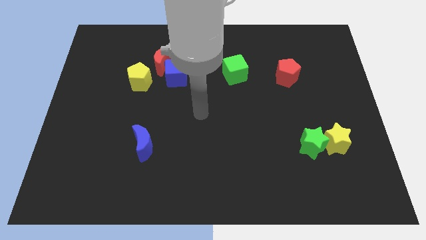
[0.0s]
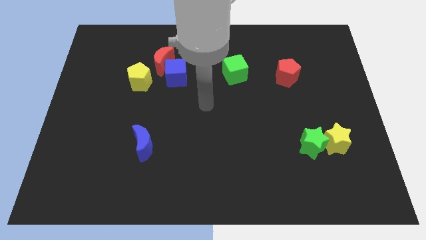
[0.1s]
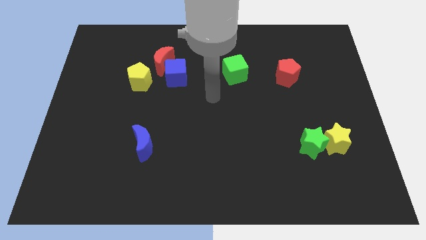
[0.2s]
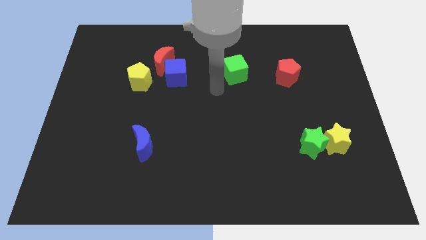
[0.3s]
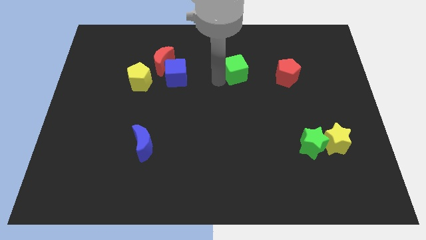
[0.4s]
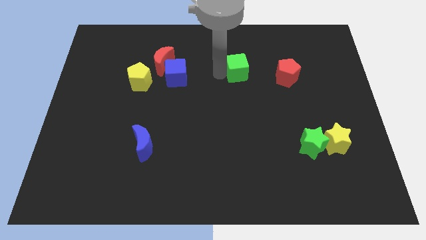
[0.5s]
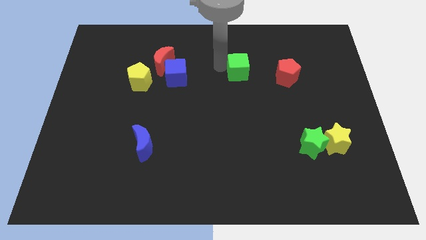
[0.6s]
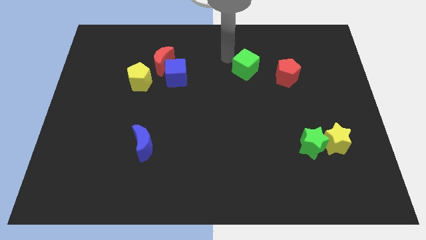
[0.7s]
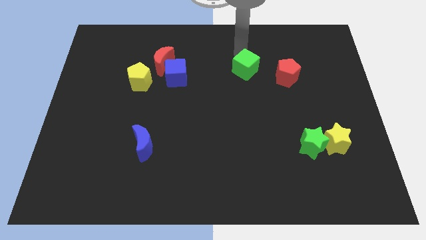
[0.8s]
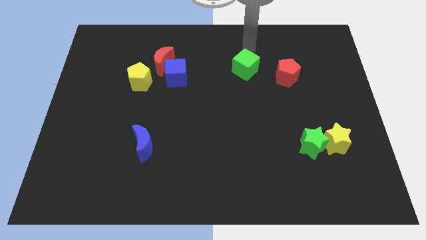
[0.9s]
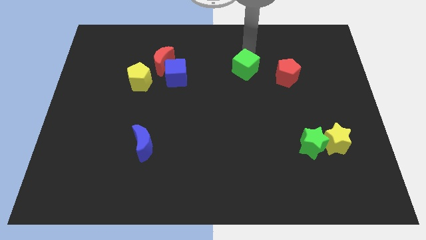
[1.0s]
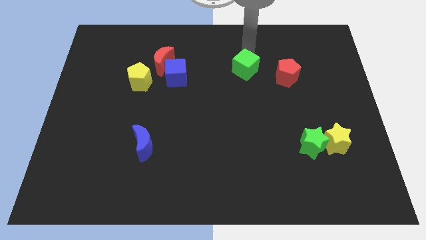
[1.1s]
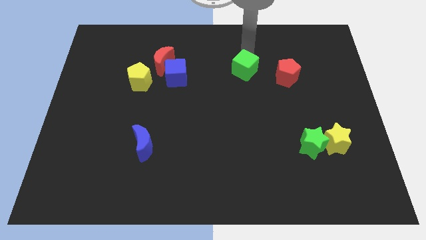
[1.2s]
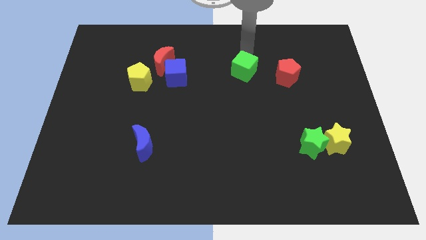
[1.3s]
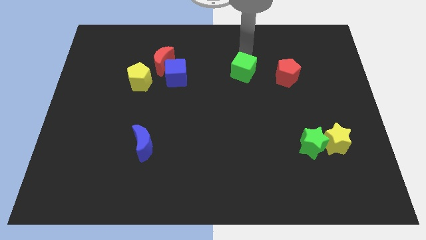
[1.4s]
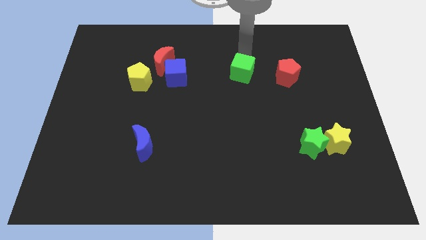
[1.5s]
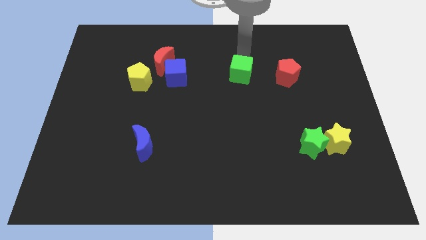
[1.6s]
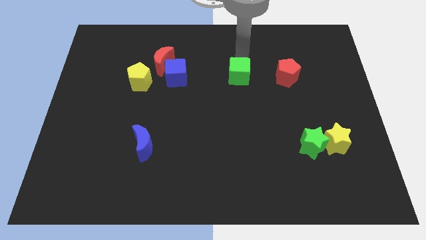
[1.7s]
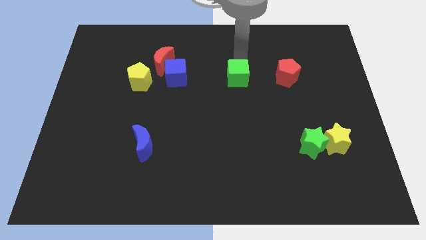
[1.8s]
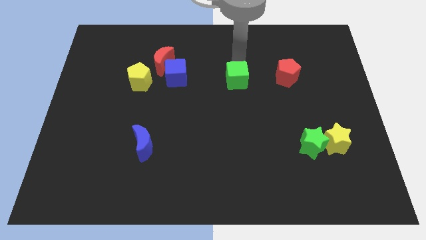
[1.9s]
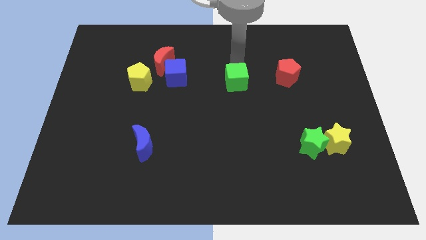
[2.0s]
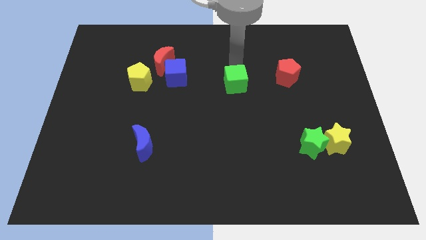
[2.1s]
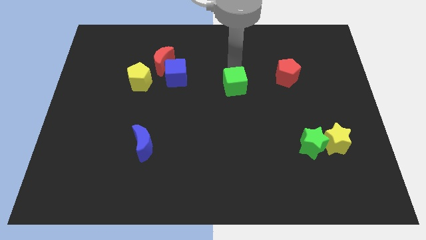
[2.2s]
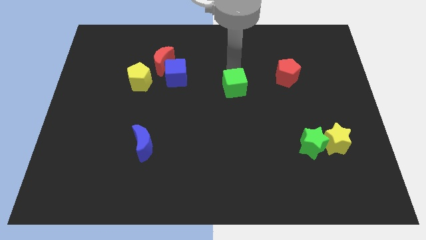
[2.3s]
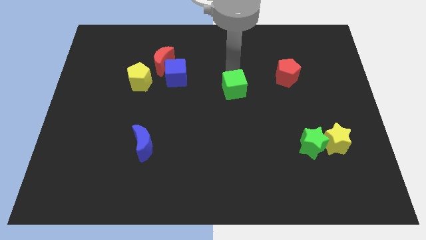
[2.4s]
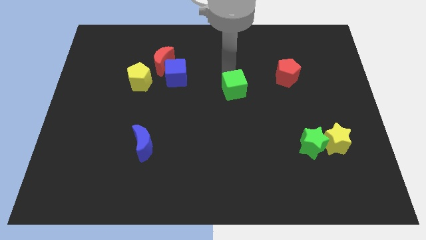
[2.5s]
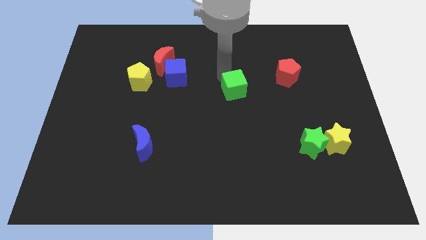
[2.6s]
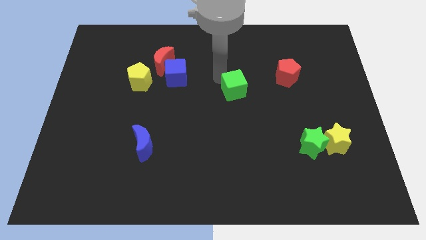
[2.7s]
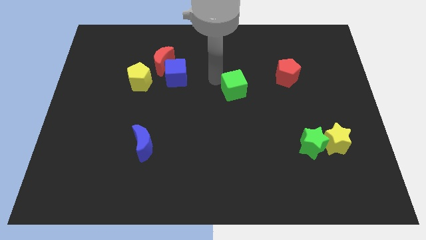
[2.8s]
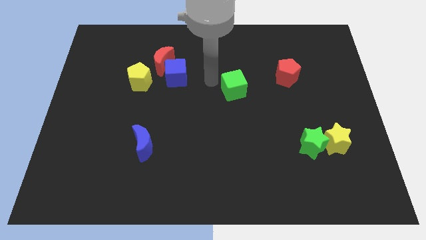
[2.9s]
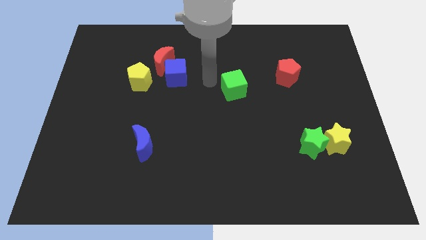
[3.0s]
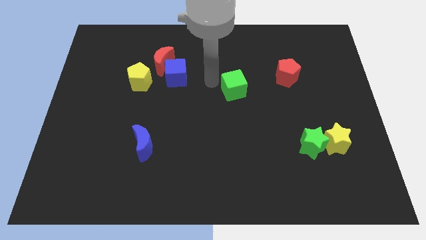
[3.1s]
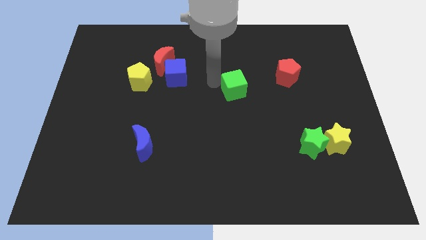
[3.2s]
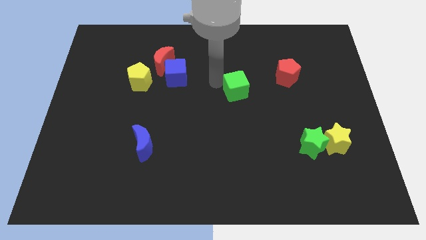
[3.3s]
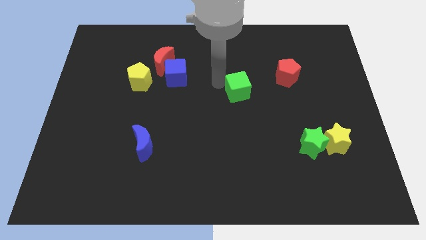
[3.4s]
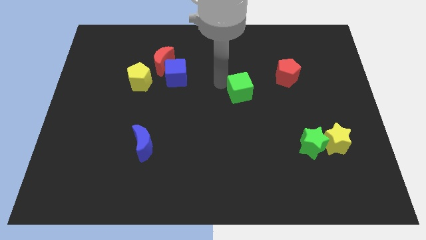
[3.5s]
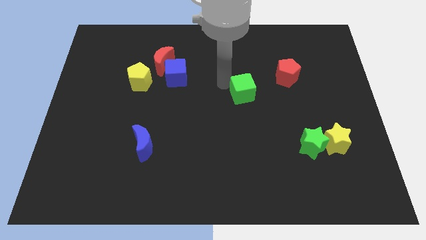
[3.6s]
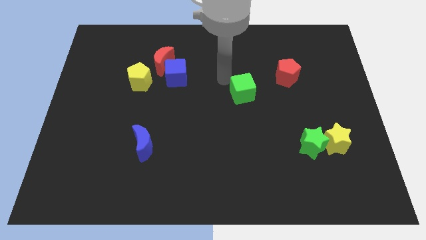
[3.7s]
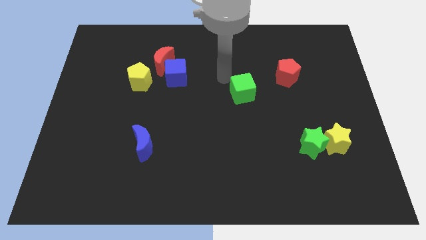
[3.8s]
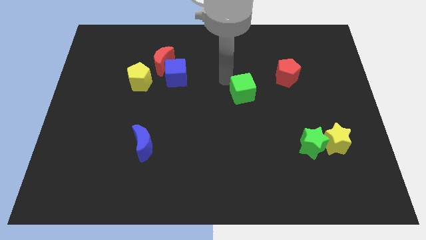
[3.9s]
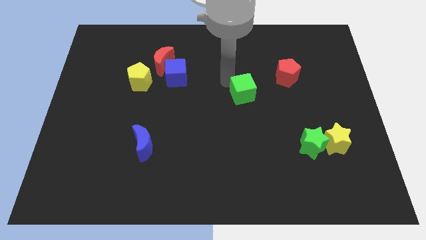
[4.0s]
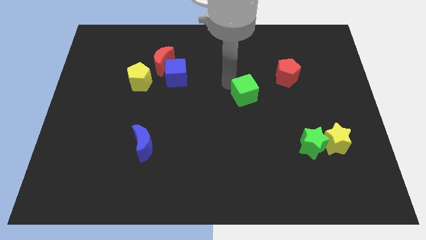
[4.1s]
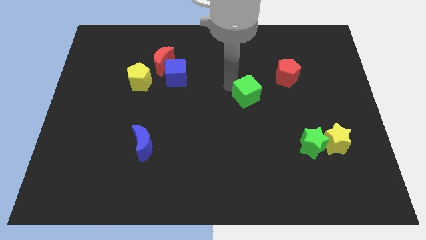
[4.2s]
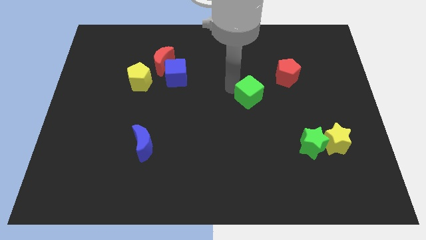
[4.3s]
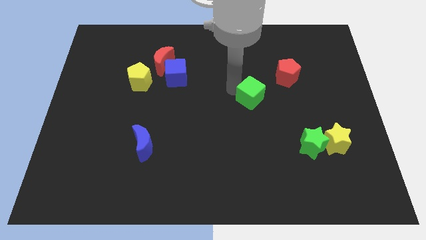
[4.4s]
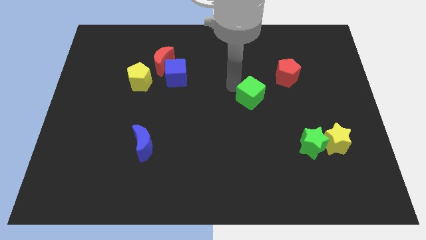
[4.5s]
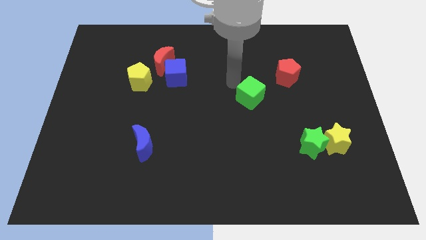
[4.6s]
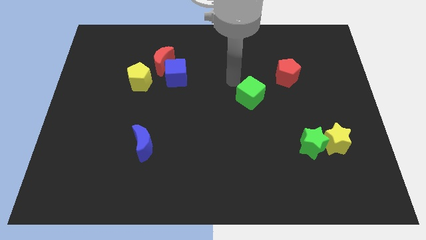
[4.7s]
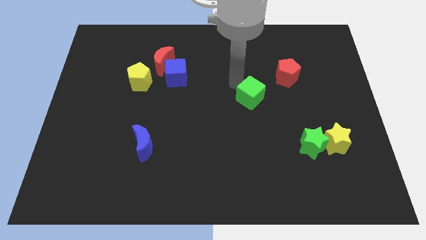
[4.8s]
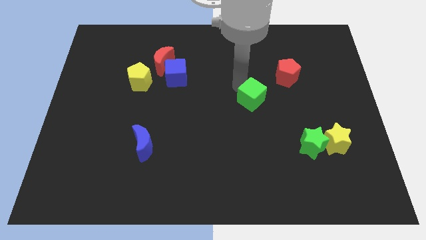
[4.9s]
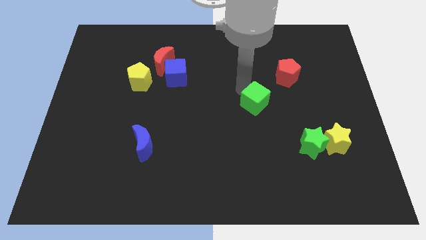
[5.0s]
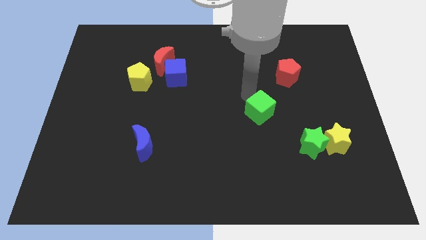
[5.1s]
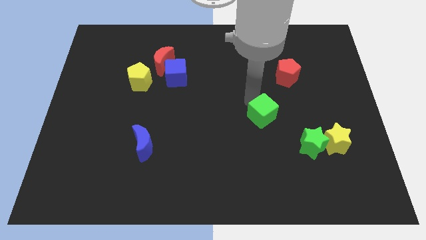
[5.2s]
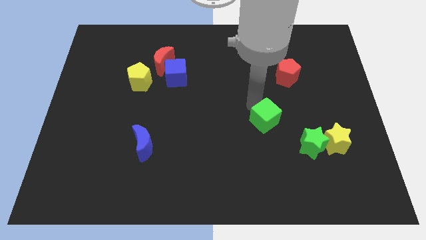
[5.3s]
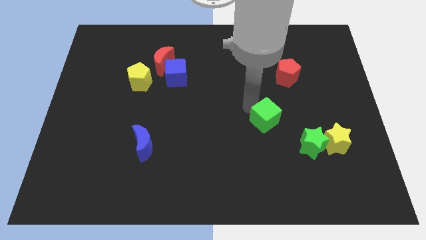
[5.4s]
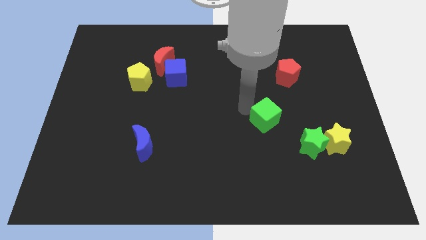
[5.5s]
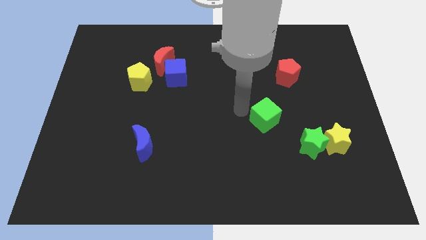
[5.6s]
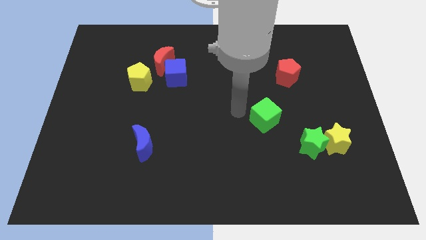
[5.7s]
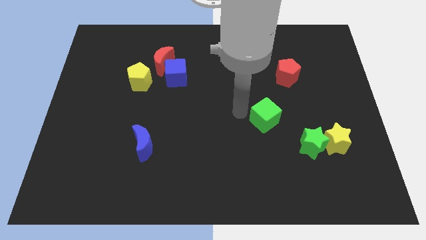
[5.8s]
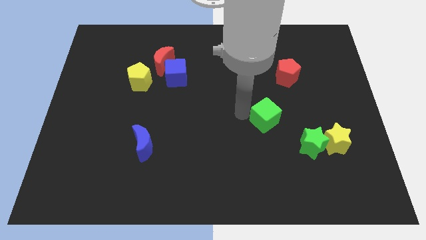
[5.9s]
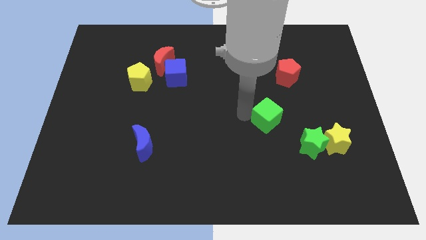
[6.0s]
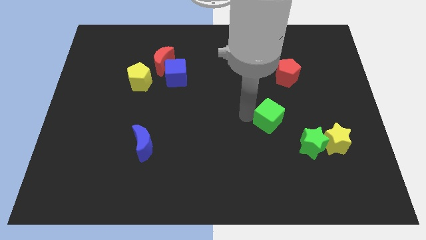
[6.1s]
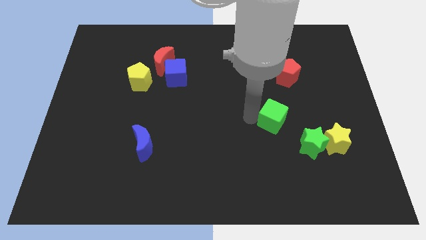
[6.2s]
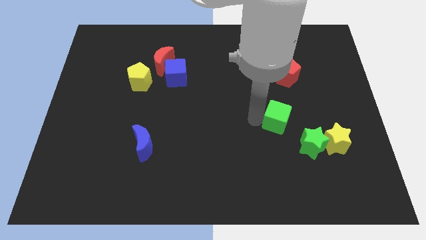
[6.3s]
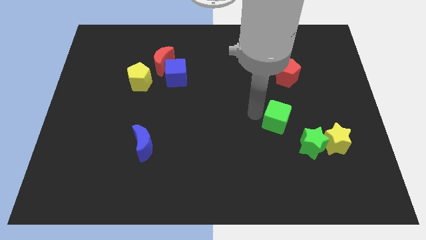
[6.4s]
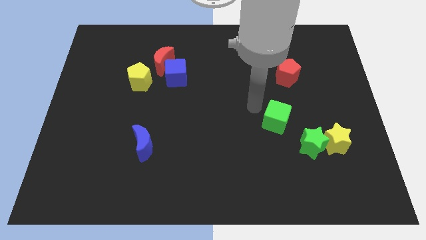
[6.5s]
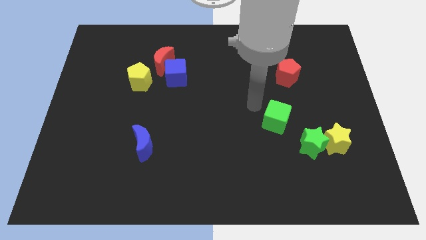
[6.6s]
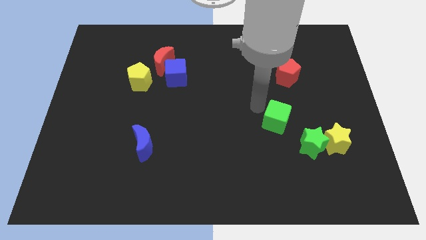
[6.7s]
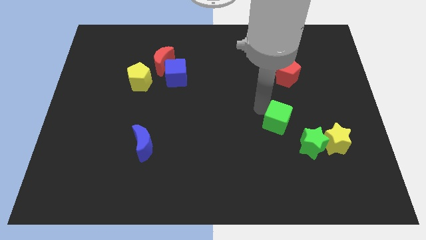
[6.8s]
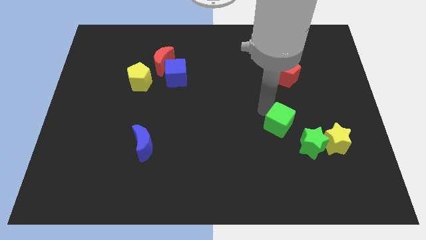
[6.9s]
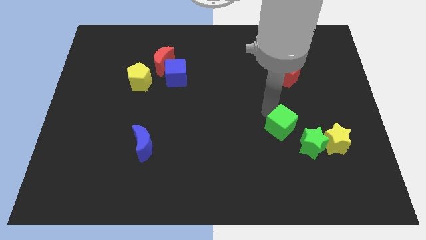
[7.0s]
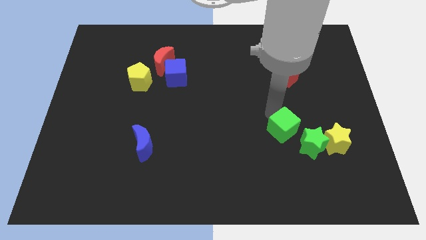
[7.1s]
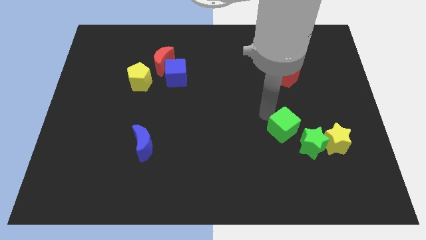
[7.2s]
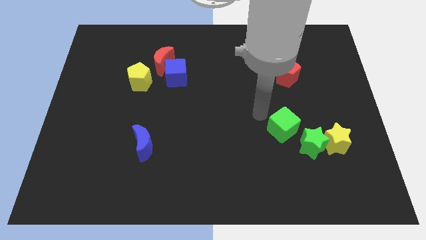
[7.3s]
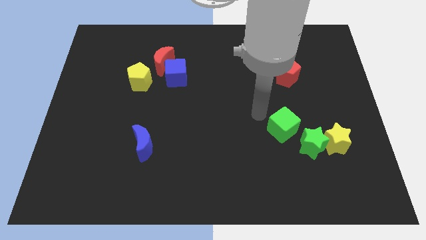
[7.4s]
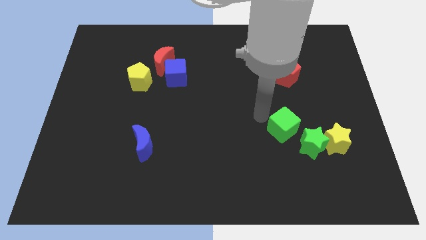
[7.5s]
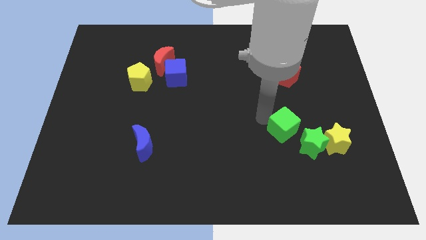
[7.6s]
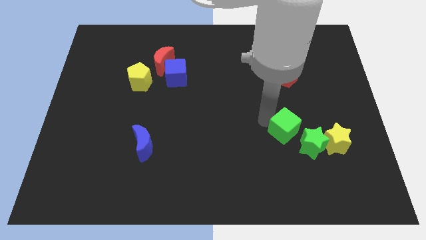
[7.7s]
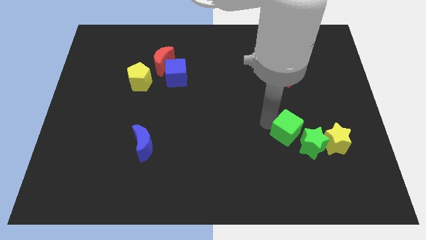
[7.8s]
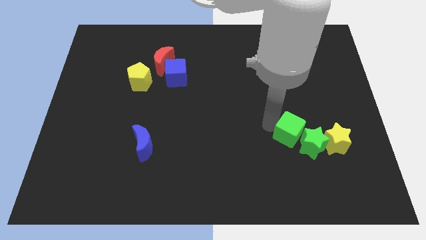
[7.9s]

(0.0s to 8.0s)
move the green cube next to the green star
